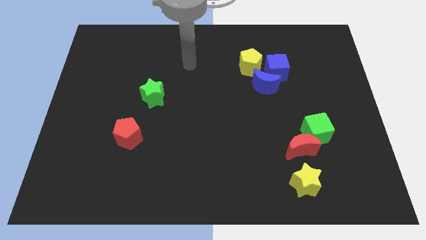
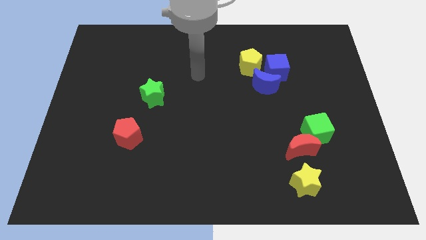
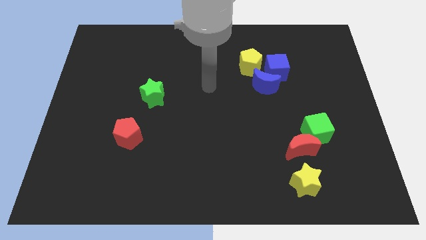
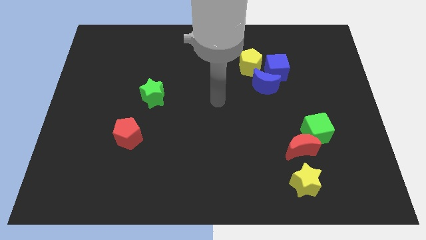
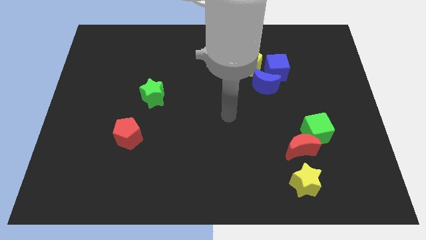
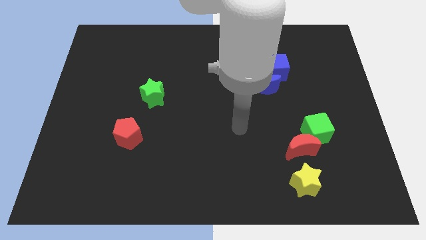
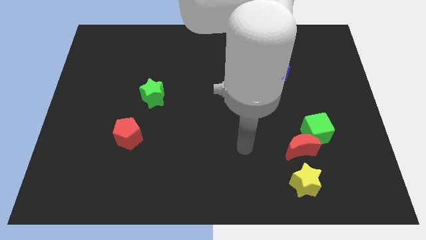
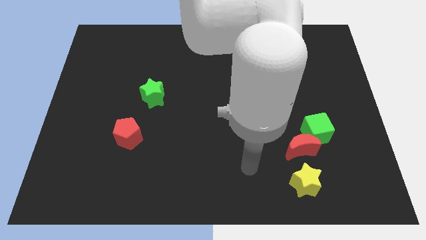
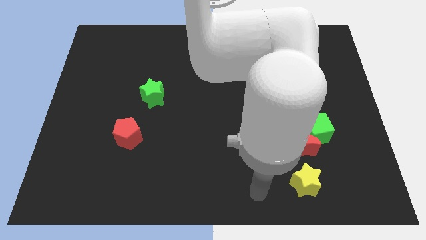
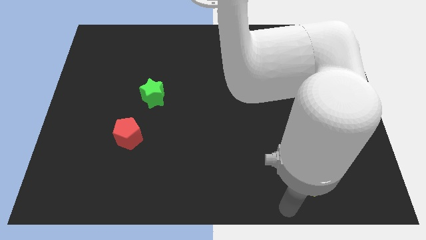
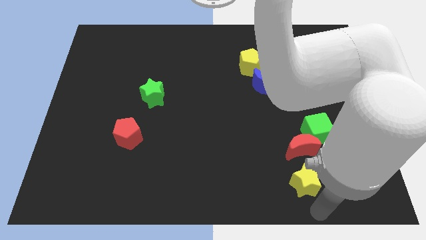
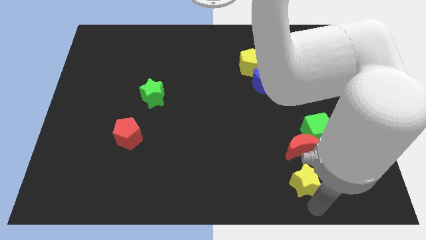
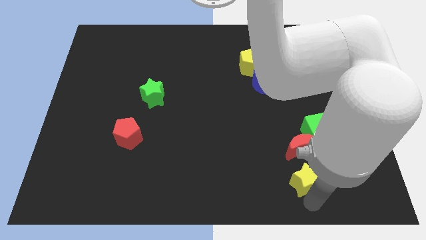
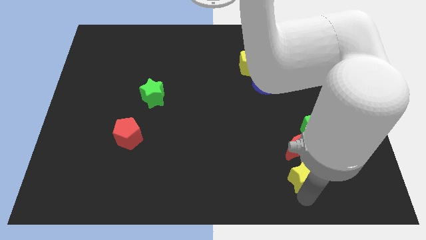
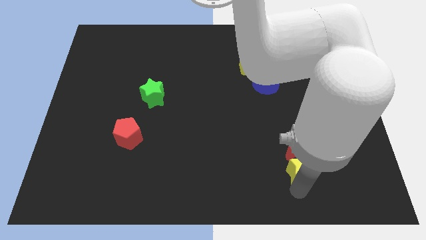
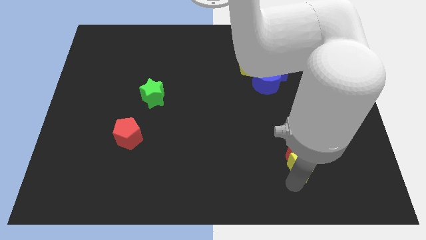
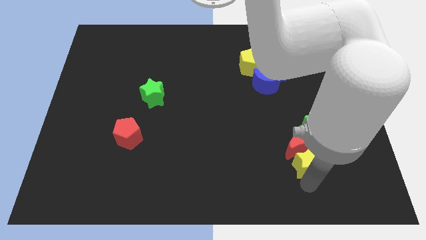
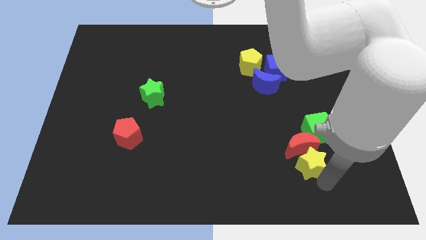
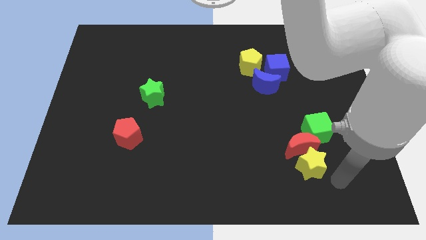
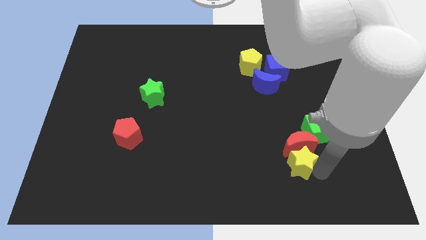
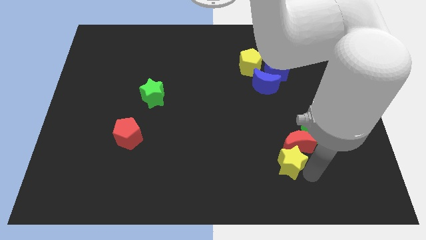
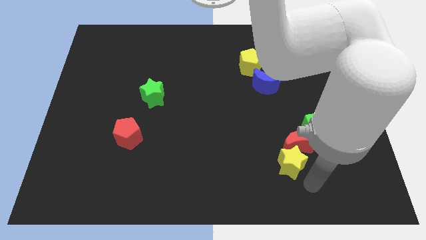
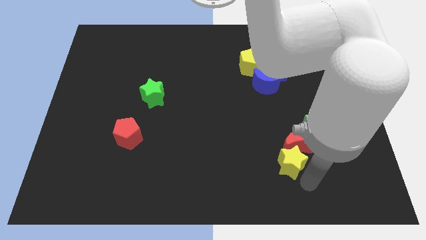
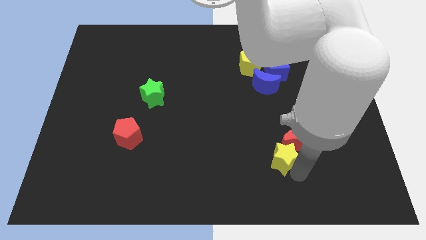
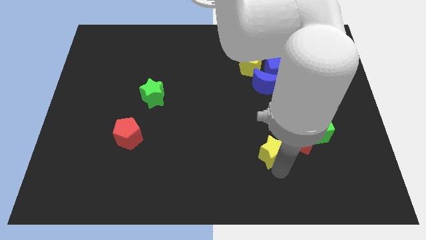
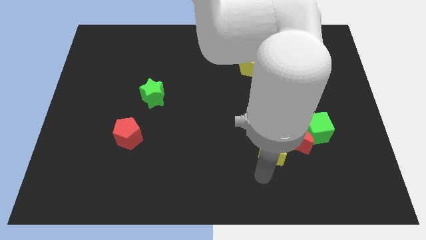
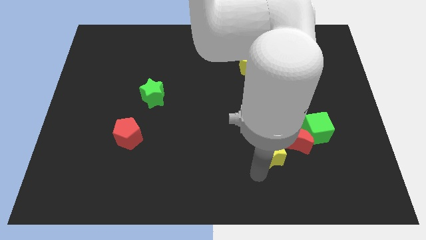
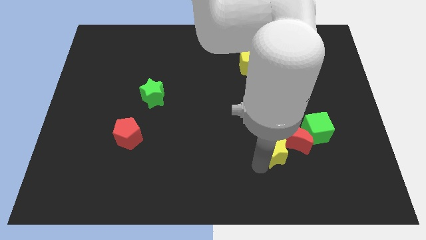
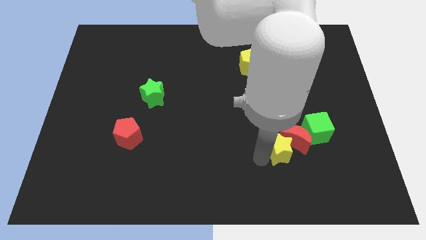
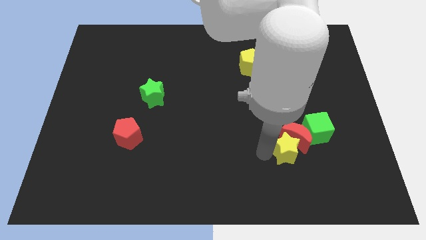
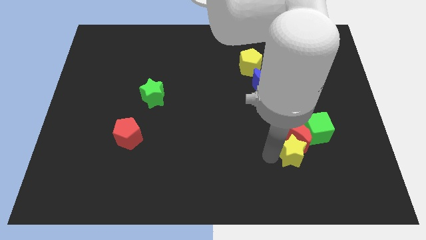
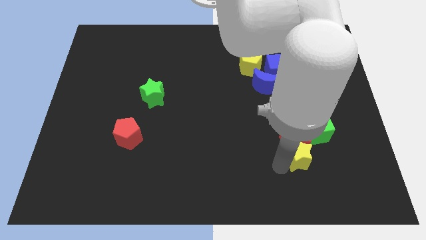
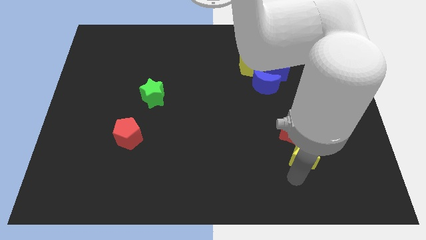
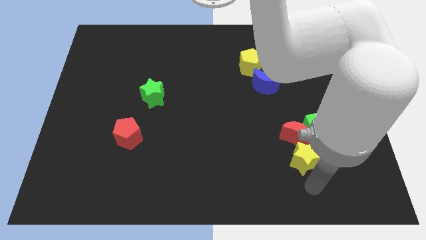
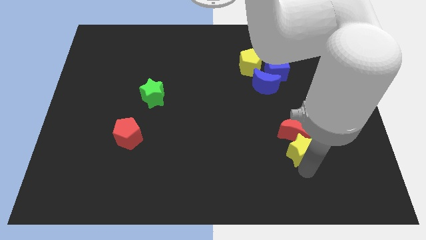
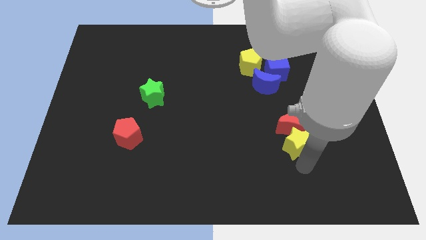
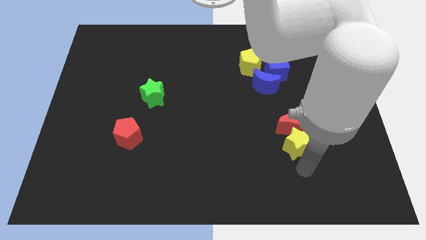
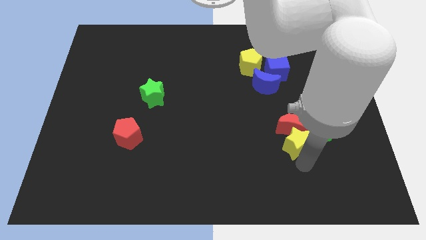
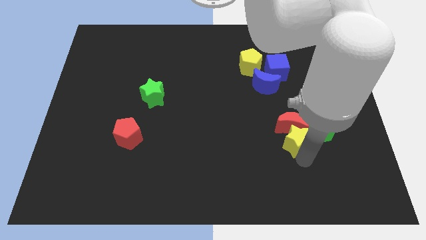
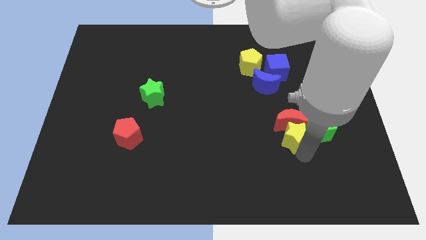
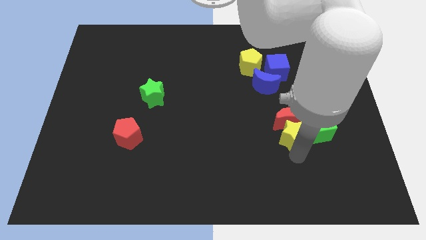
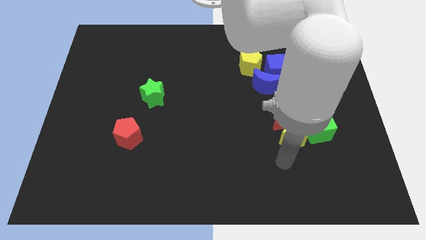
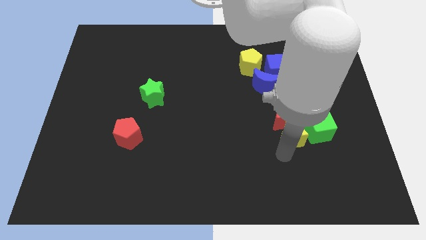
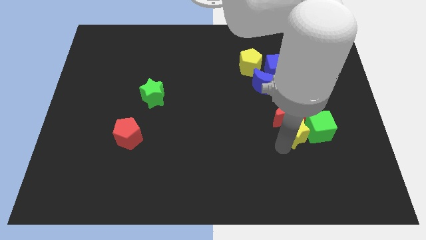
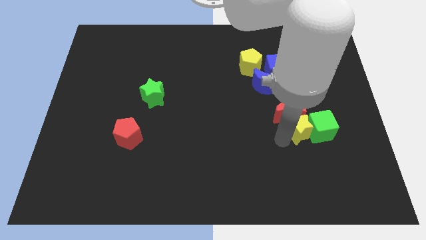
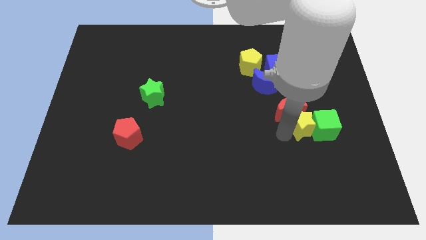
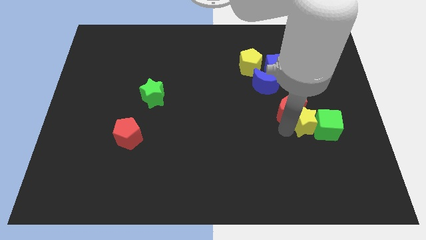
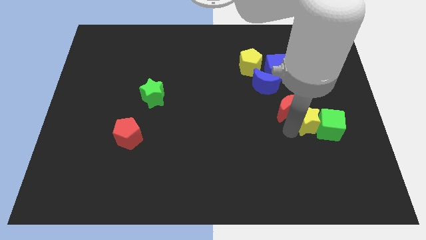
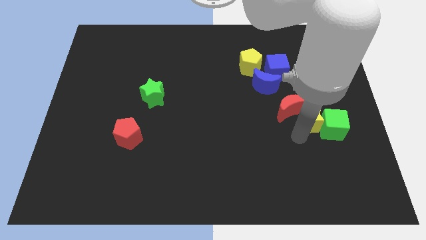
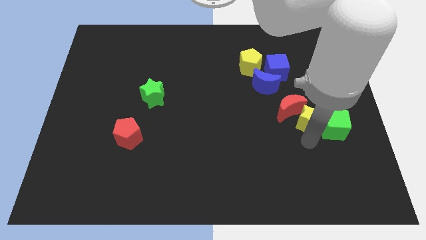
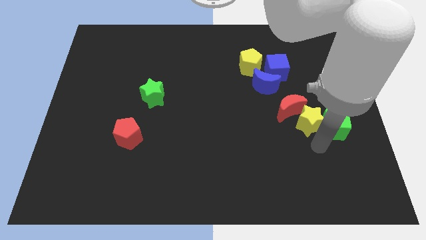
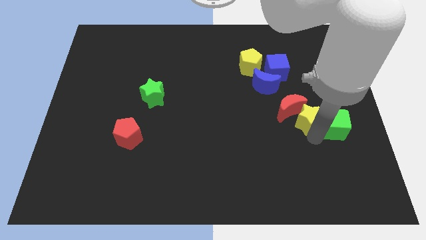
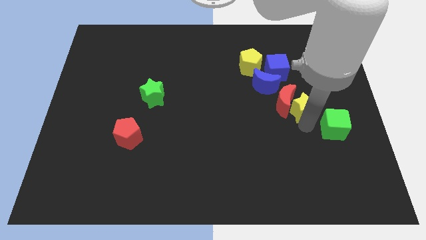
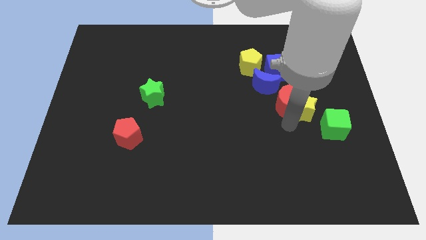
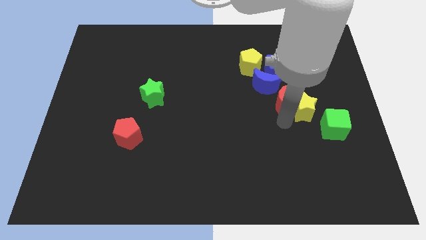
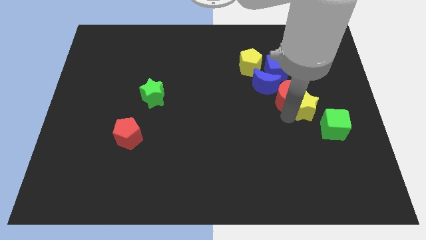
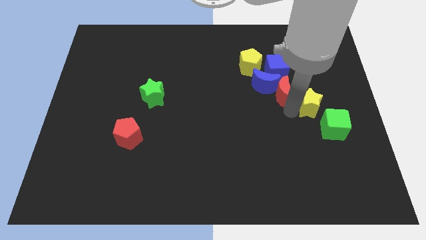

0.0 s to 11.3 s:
slide the yellow star to the top of the green cube

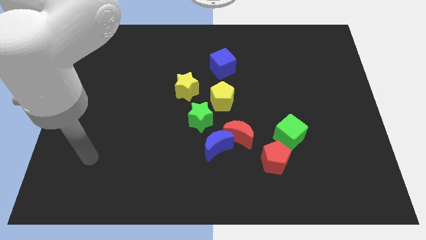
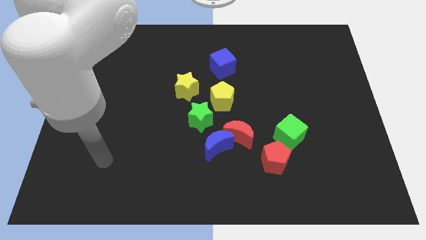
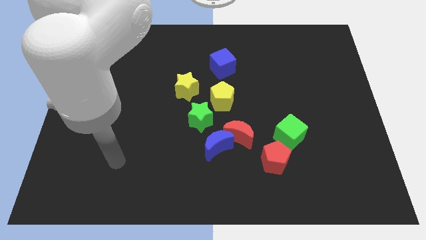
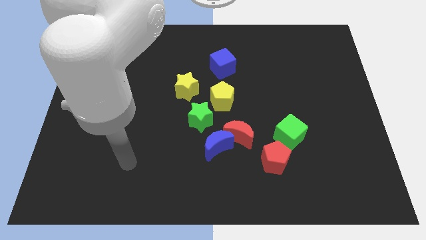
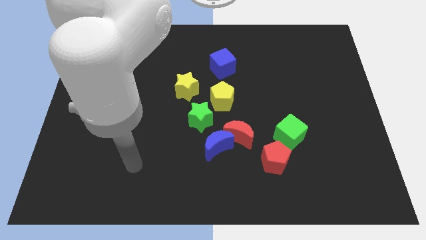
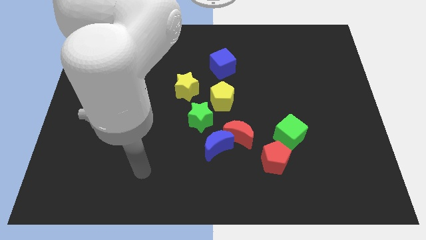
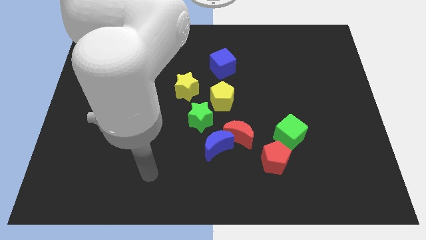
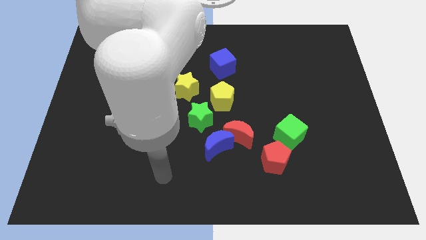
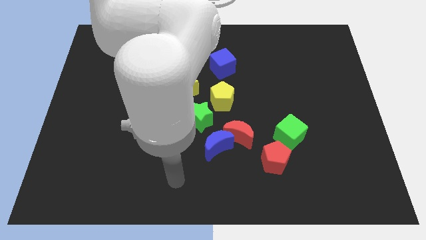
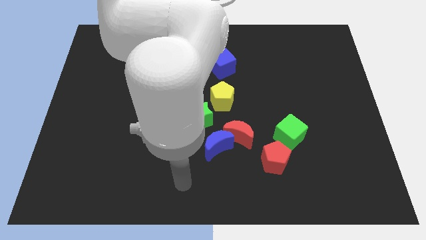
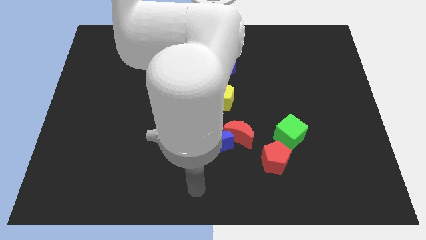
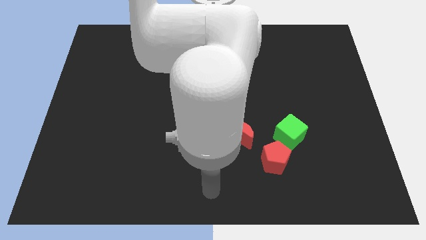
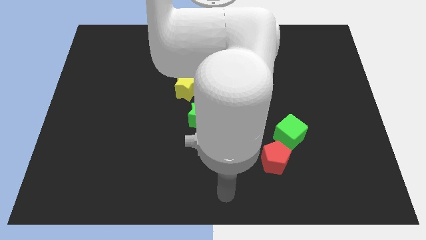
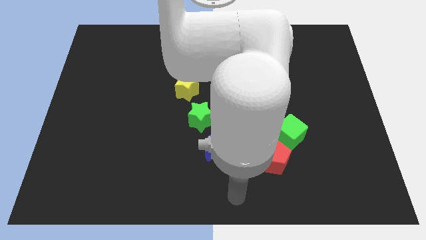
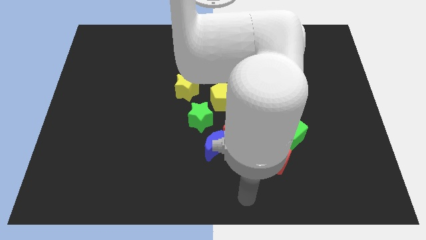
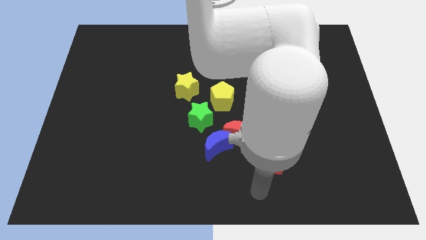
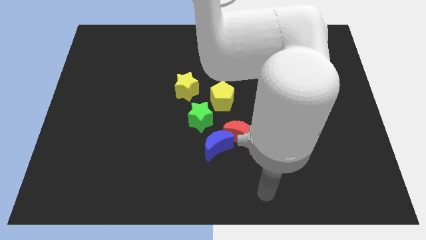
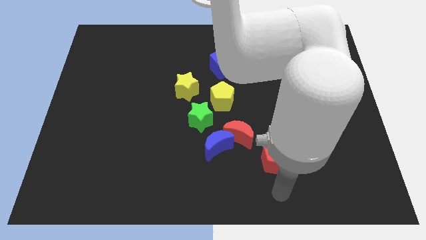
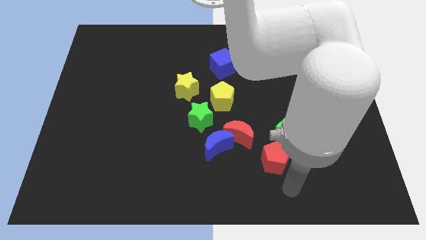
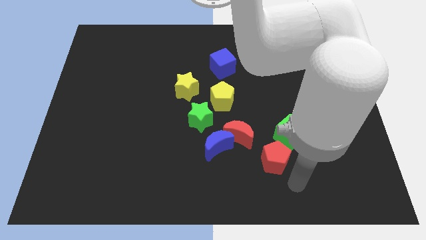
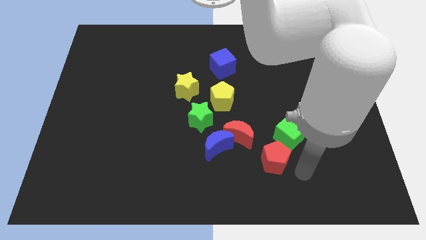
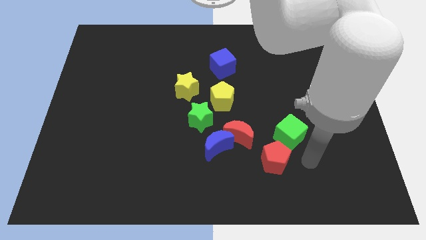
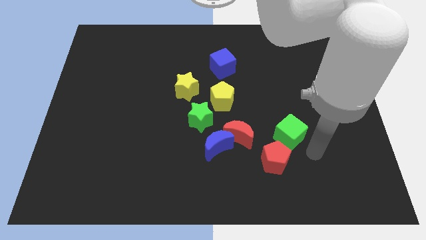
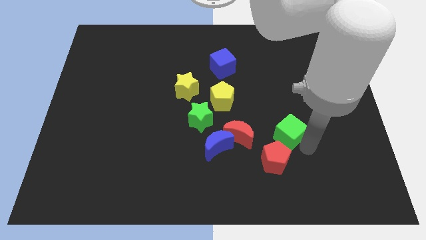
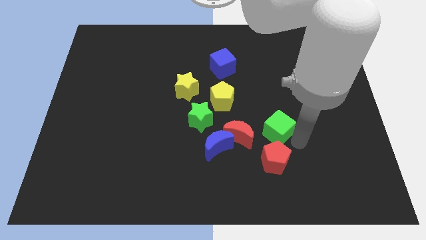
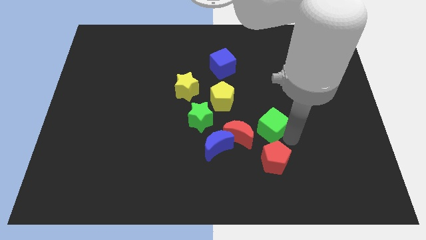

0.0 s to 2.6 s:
put the green cube to the top right side of the red moon

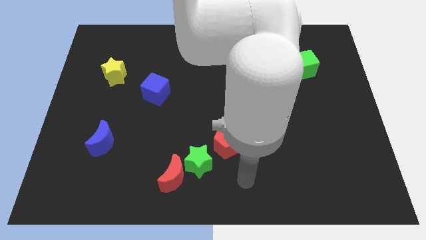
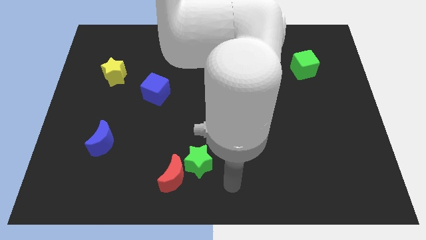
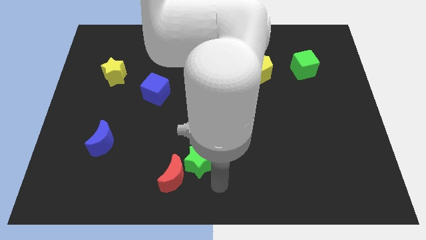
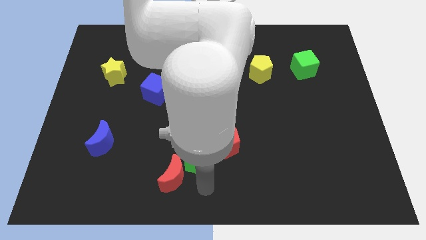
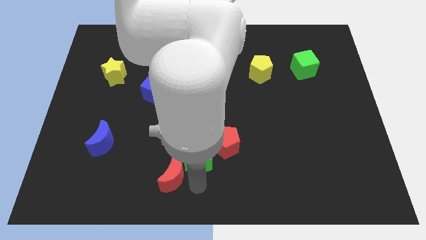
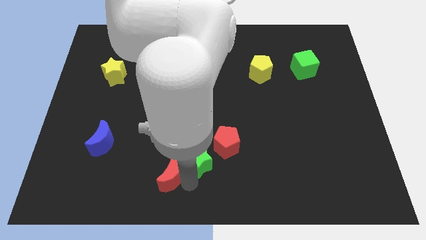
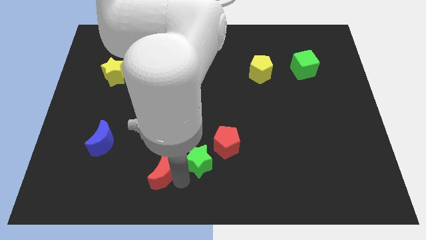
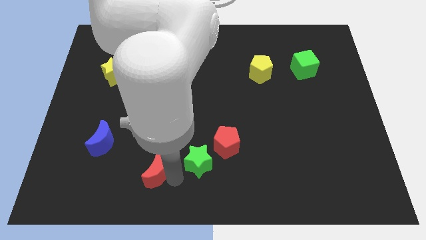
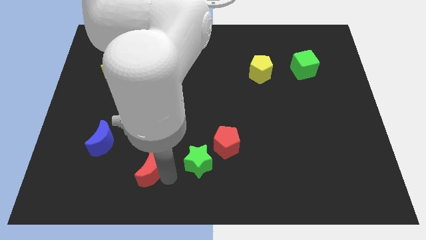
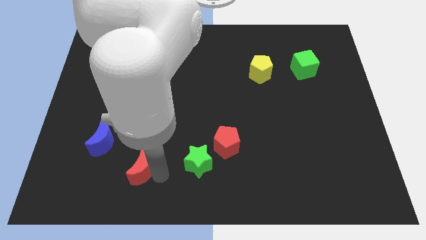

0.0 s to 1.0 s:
push the red moon diagonally down and to the right of the blue moon
